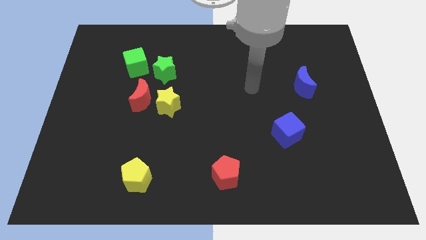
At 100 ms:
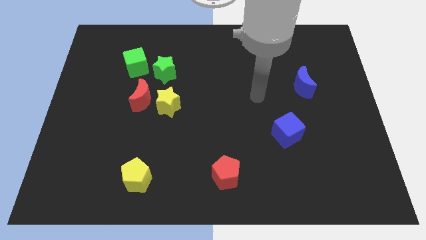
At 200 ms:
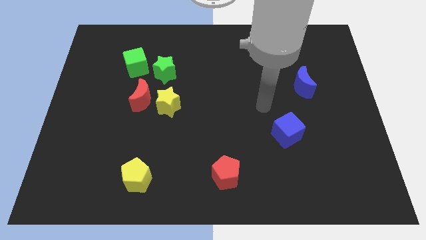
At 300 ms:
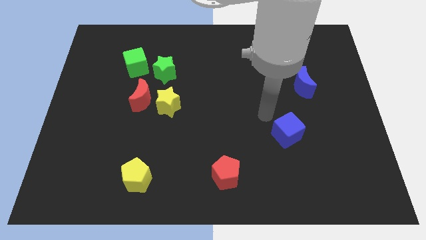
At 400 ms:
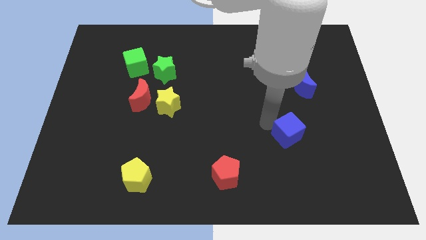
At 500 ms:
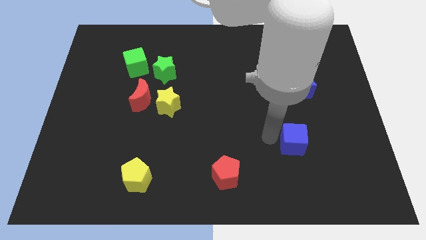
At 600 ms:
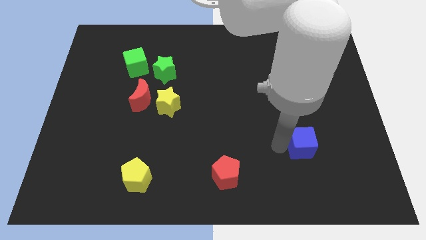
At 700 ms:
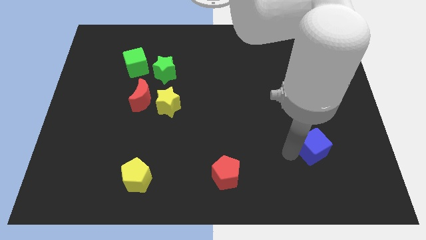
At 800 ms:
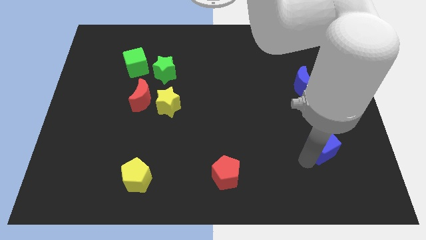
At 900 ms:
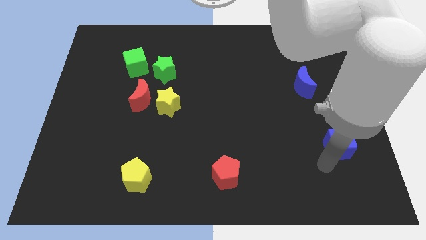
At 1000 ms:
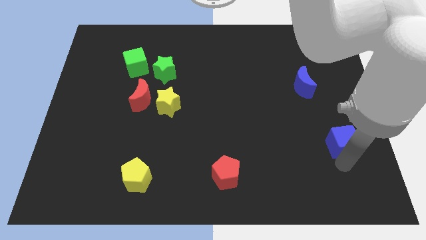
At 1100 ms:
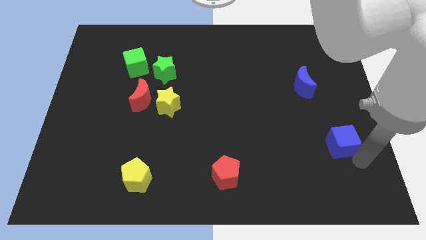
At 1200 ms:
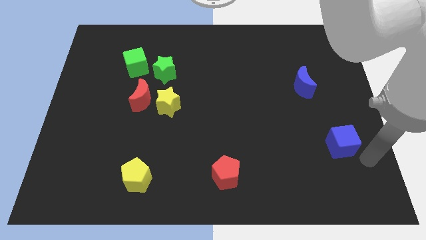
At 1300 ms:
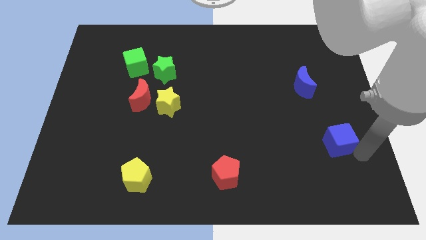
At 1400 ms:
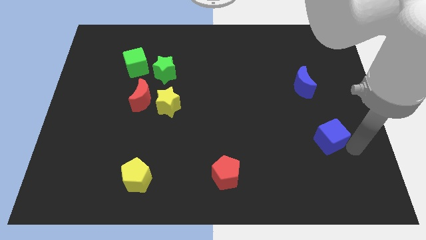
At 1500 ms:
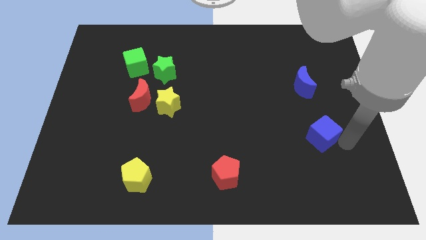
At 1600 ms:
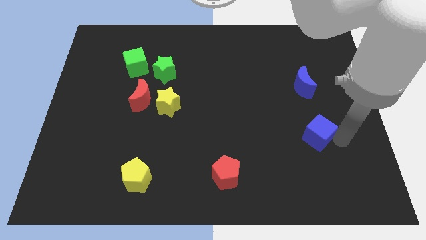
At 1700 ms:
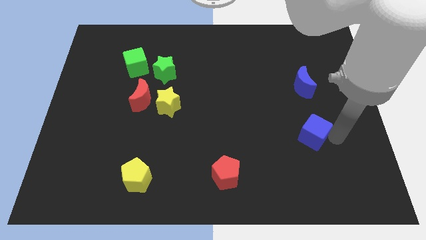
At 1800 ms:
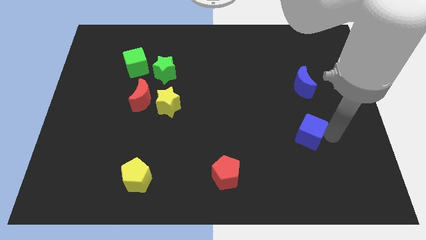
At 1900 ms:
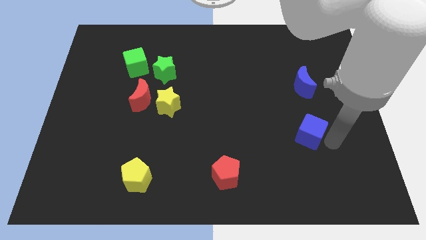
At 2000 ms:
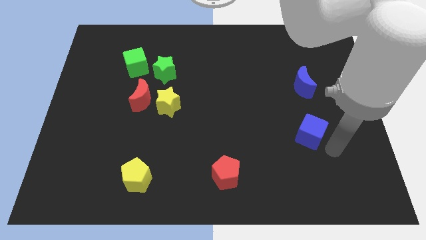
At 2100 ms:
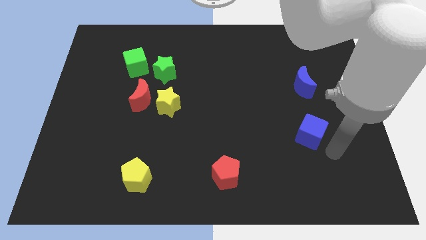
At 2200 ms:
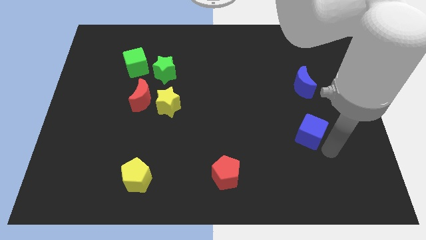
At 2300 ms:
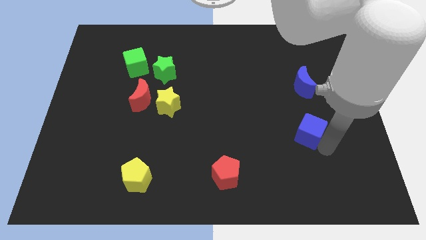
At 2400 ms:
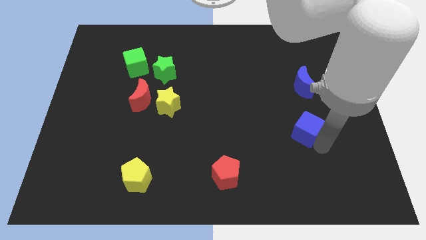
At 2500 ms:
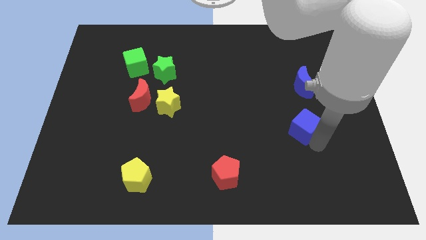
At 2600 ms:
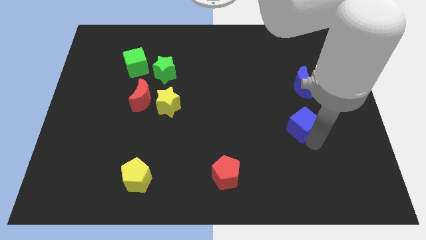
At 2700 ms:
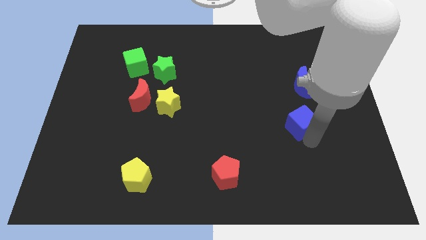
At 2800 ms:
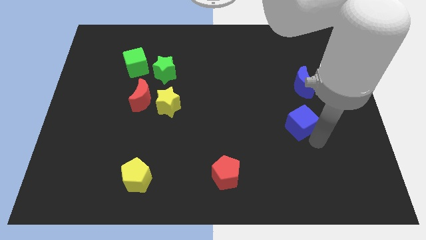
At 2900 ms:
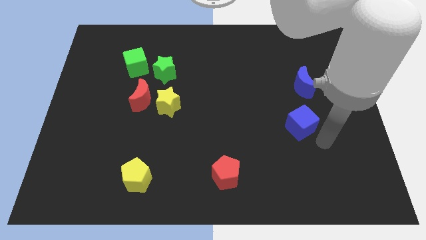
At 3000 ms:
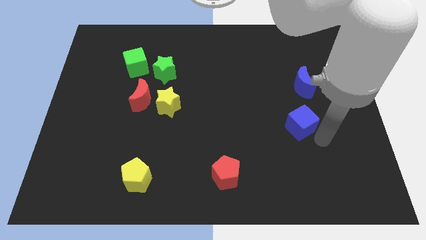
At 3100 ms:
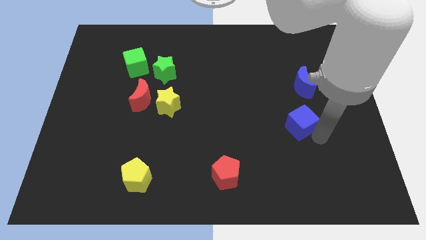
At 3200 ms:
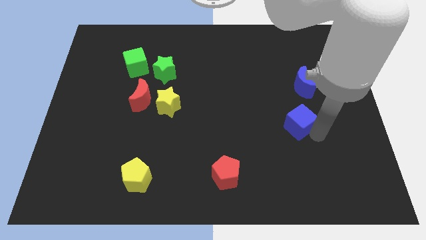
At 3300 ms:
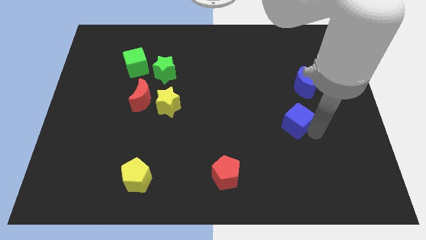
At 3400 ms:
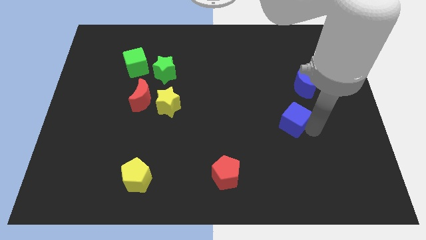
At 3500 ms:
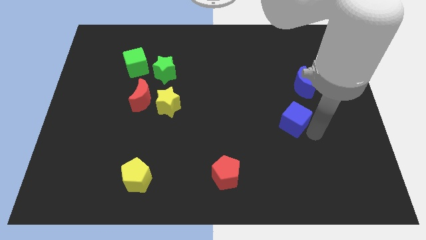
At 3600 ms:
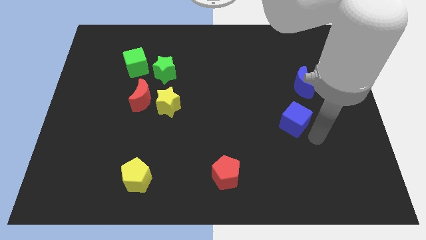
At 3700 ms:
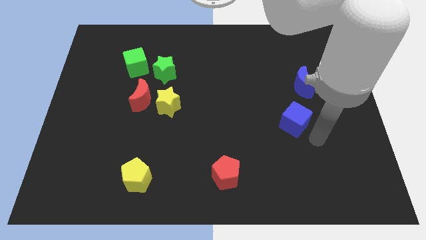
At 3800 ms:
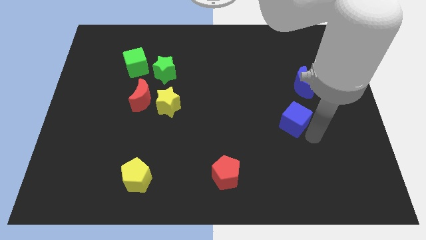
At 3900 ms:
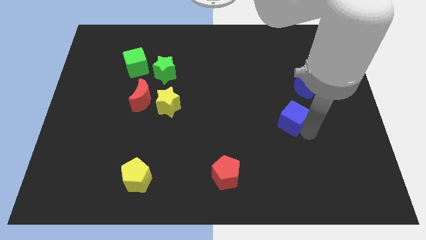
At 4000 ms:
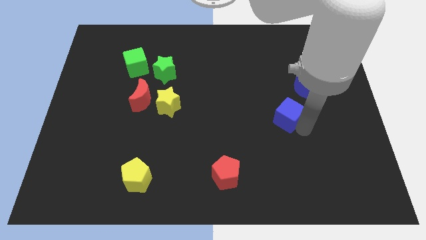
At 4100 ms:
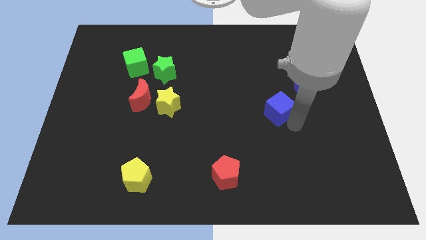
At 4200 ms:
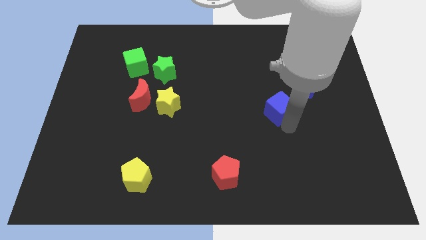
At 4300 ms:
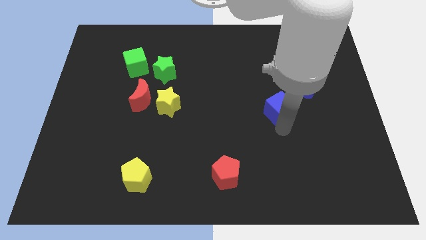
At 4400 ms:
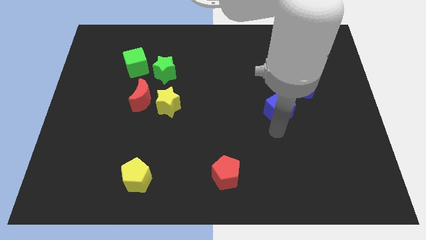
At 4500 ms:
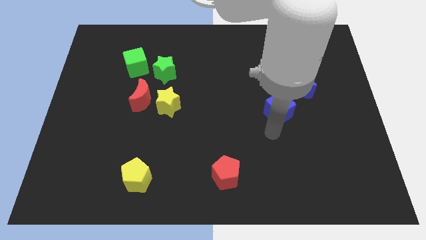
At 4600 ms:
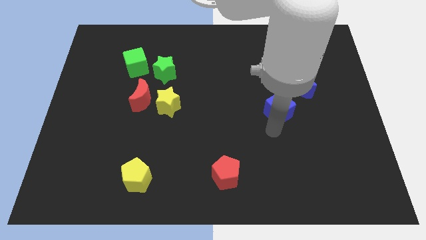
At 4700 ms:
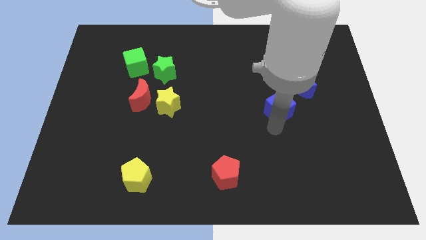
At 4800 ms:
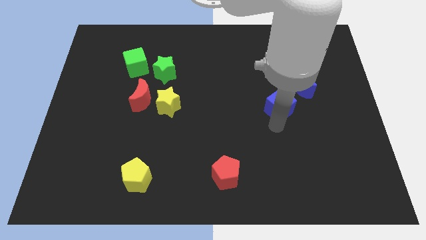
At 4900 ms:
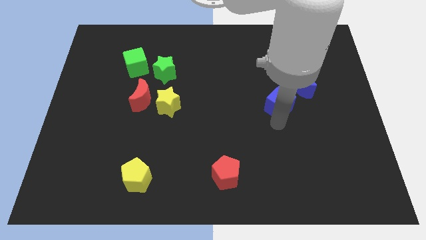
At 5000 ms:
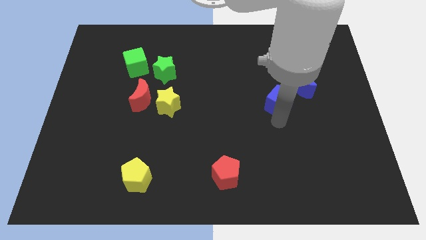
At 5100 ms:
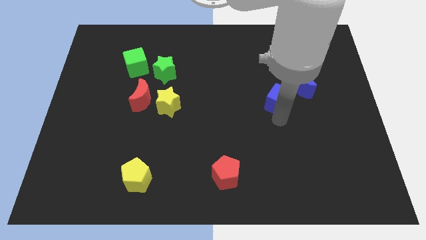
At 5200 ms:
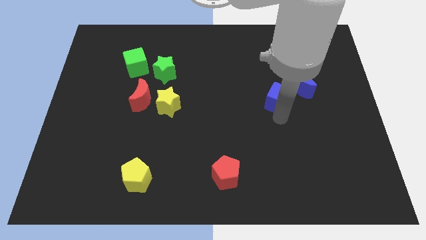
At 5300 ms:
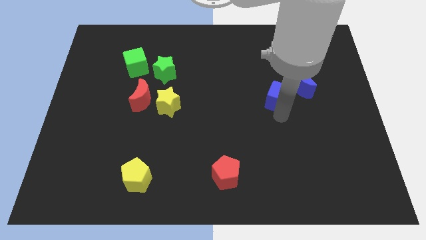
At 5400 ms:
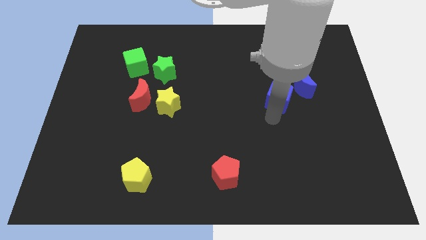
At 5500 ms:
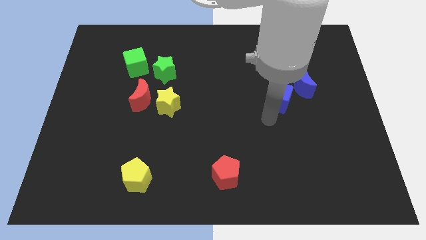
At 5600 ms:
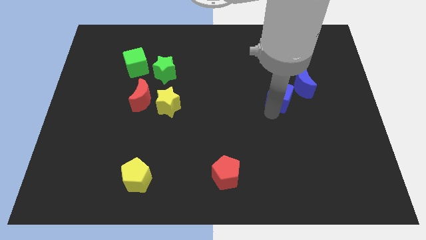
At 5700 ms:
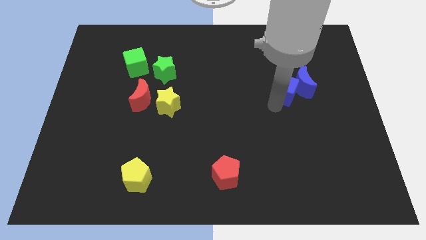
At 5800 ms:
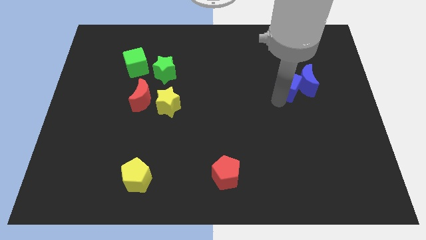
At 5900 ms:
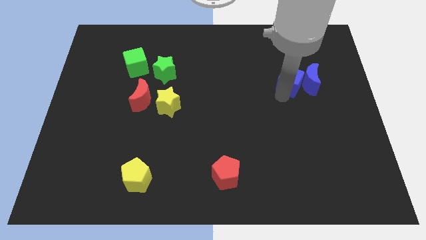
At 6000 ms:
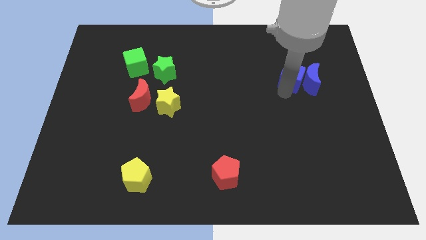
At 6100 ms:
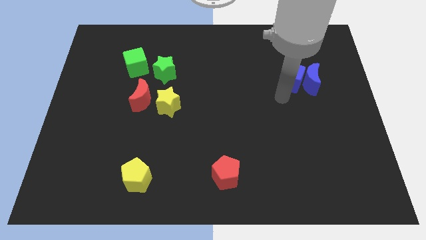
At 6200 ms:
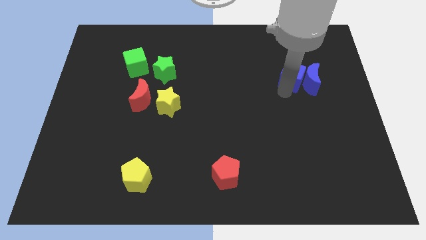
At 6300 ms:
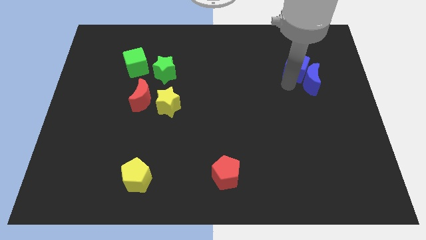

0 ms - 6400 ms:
move the blue cube to the top side of the blue moon

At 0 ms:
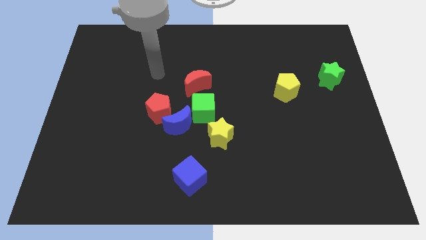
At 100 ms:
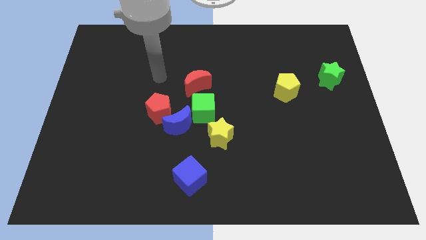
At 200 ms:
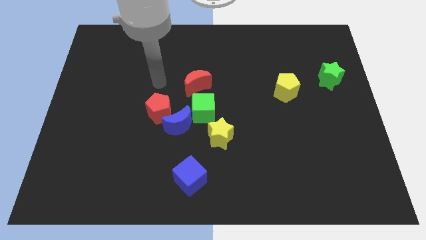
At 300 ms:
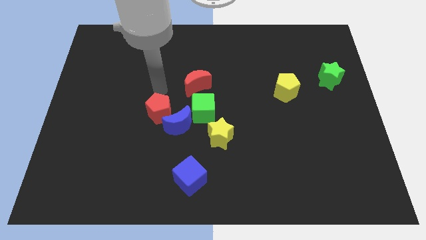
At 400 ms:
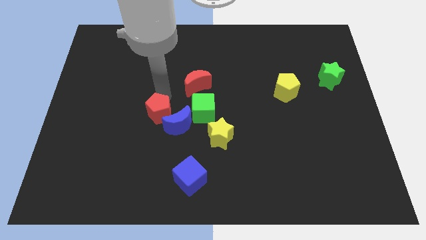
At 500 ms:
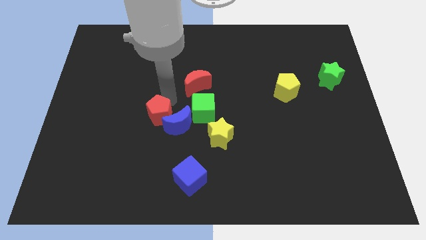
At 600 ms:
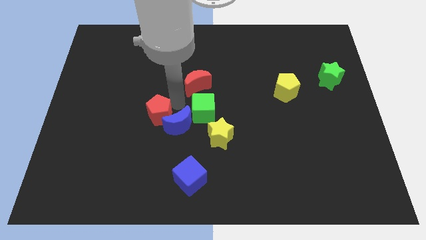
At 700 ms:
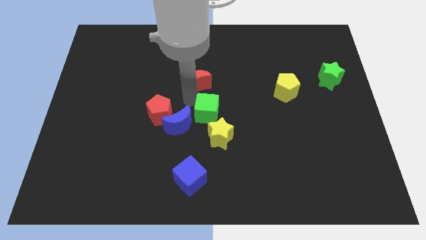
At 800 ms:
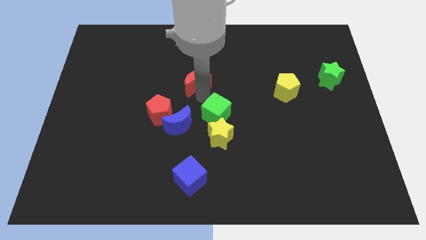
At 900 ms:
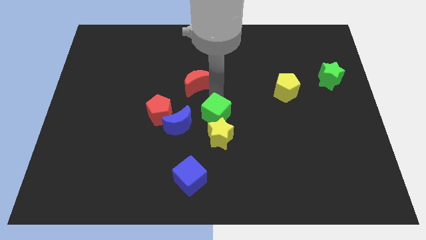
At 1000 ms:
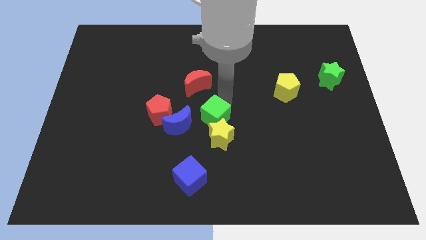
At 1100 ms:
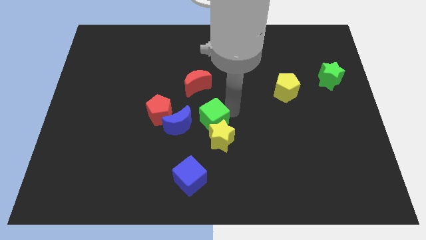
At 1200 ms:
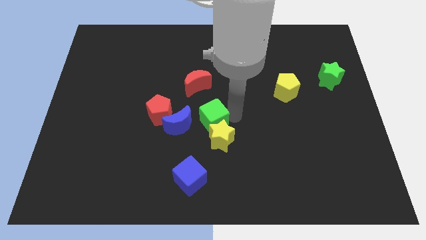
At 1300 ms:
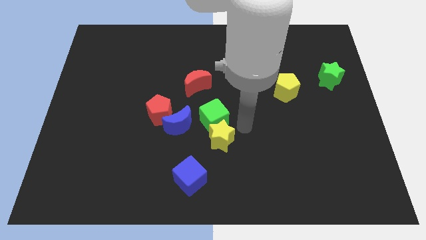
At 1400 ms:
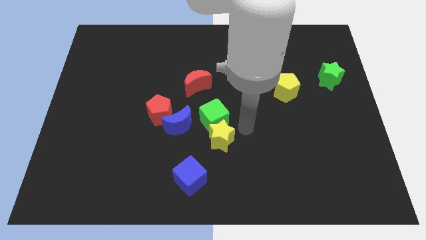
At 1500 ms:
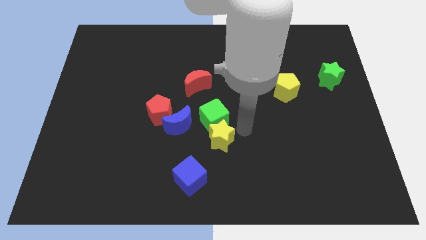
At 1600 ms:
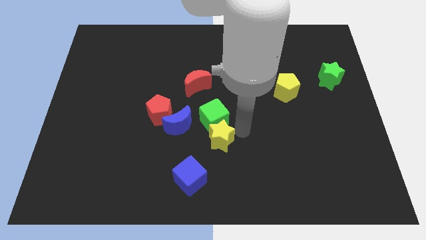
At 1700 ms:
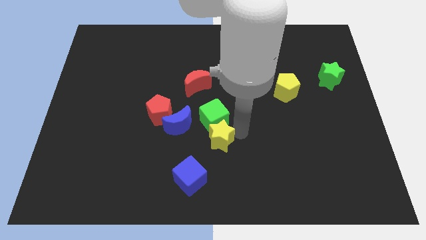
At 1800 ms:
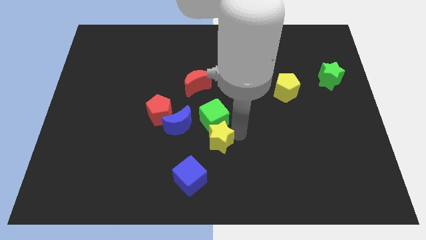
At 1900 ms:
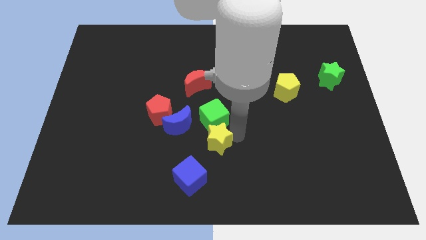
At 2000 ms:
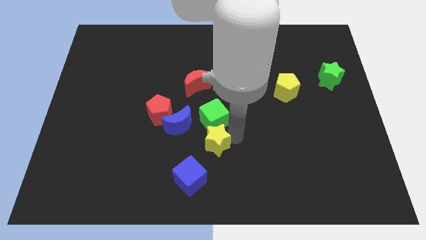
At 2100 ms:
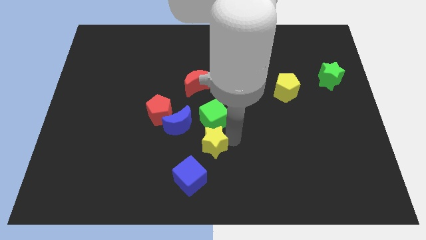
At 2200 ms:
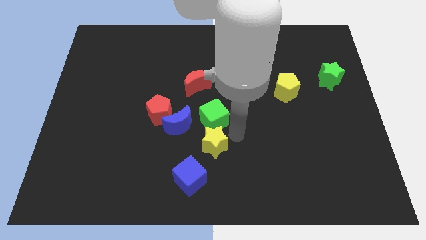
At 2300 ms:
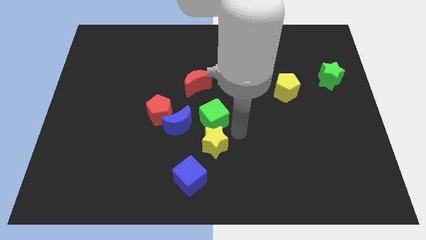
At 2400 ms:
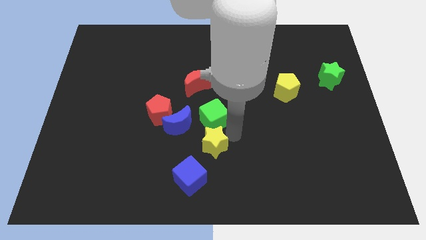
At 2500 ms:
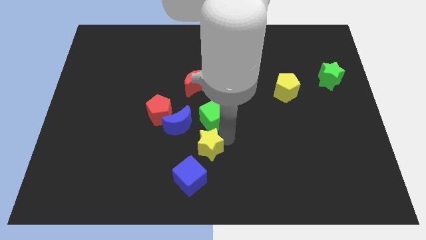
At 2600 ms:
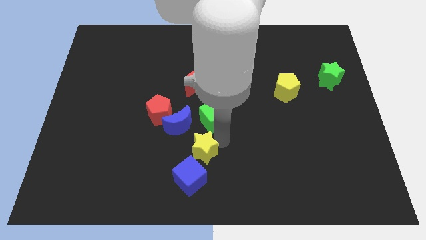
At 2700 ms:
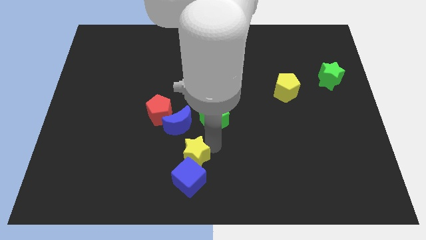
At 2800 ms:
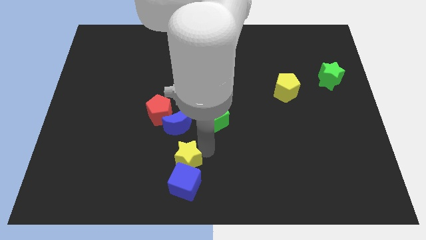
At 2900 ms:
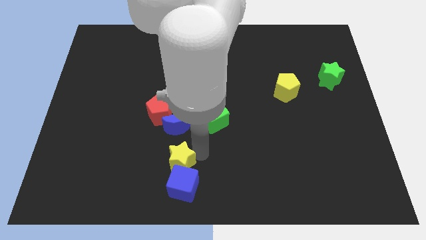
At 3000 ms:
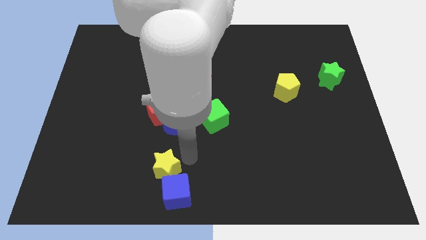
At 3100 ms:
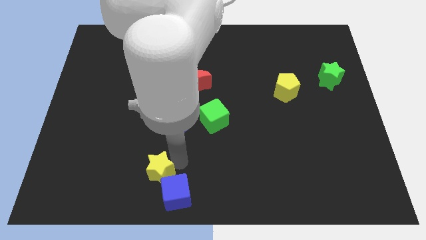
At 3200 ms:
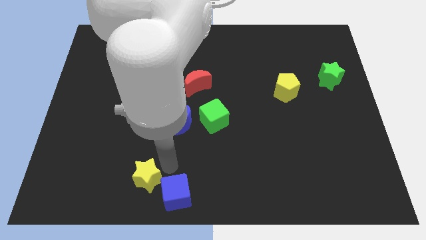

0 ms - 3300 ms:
push the yellow star to the left side of the blue cube
